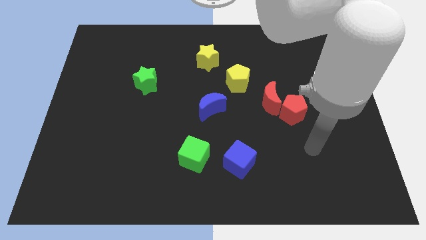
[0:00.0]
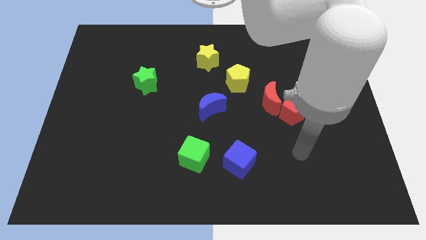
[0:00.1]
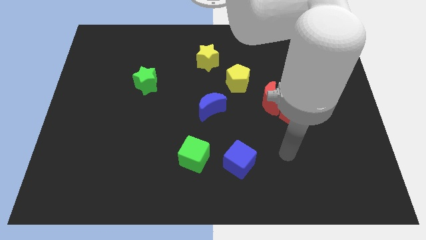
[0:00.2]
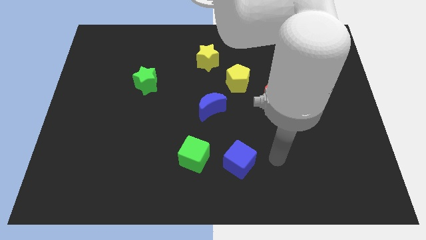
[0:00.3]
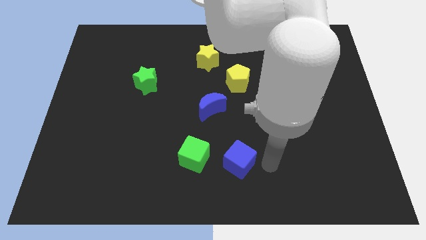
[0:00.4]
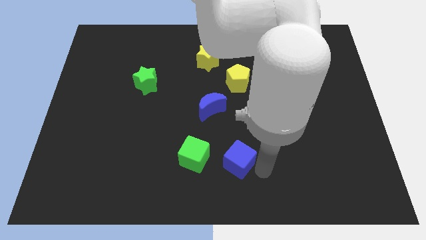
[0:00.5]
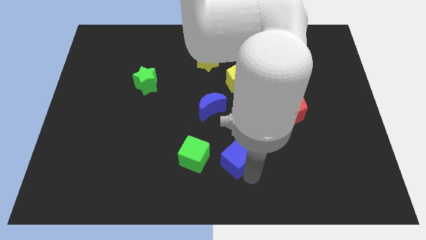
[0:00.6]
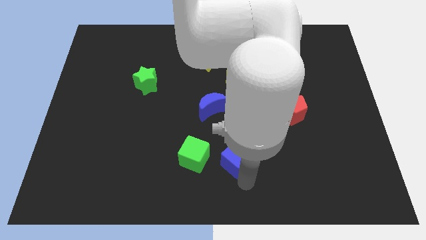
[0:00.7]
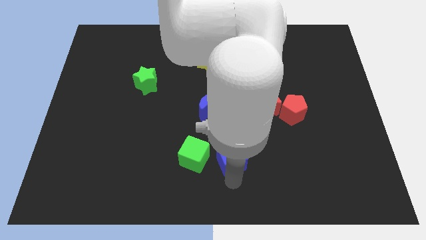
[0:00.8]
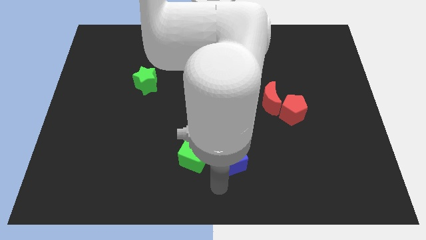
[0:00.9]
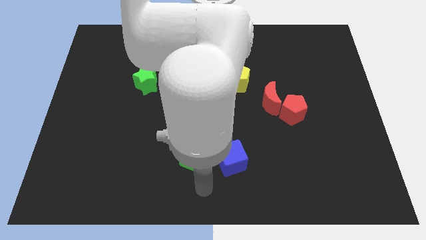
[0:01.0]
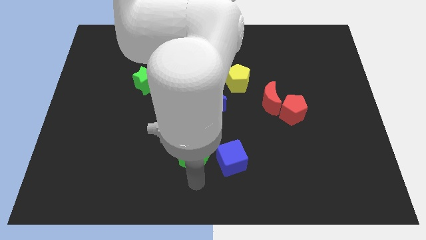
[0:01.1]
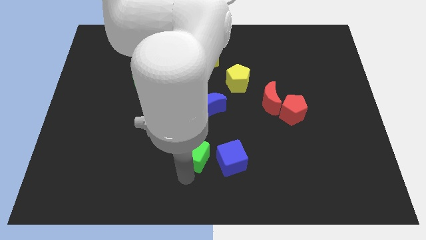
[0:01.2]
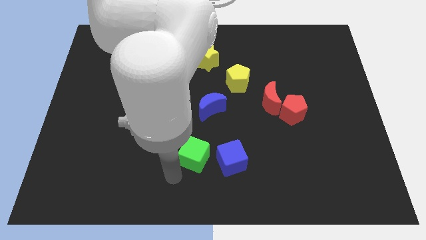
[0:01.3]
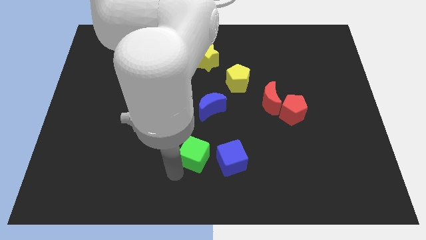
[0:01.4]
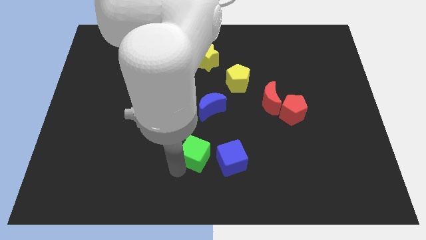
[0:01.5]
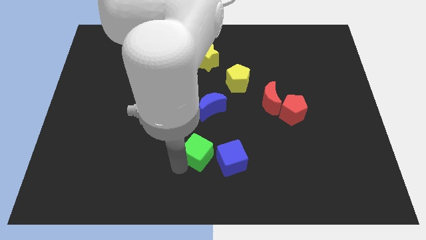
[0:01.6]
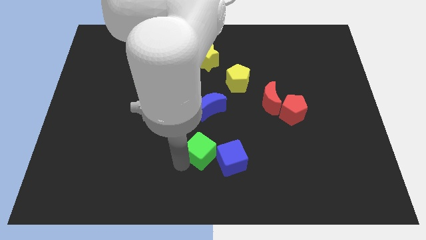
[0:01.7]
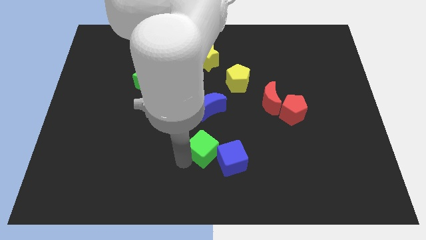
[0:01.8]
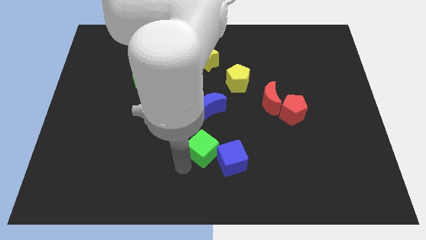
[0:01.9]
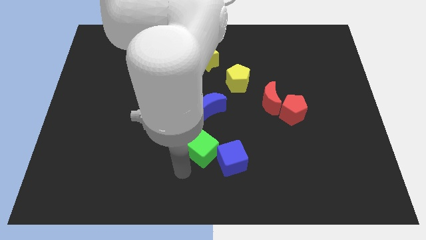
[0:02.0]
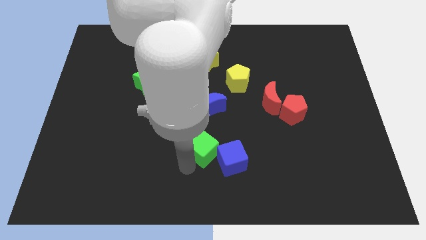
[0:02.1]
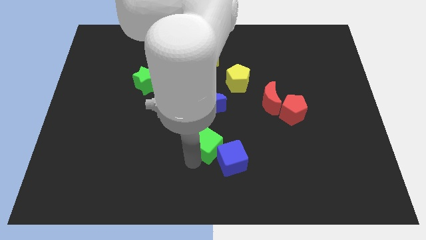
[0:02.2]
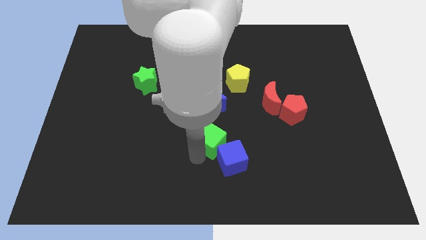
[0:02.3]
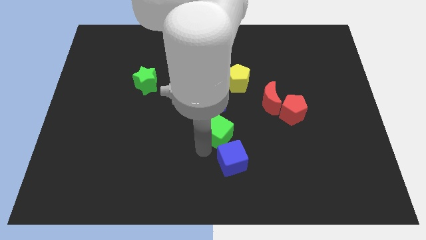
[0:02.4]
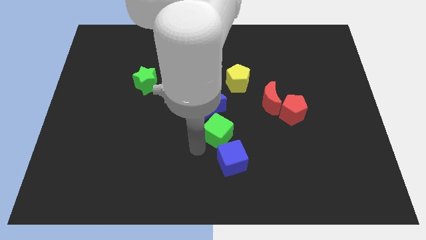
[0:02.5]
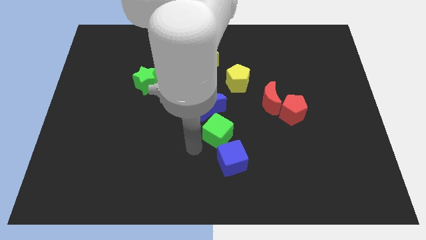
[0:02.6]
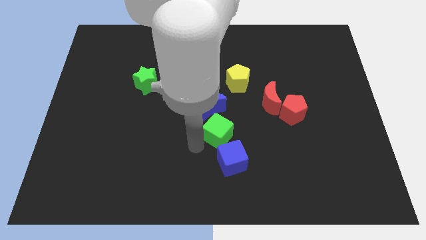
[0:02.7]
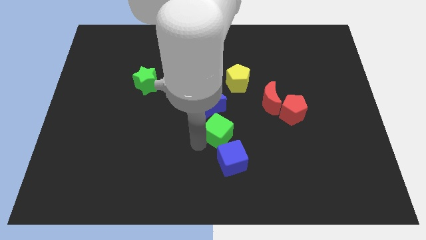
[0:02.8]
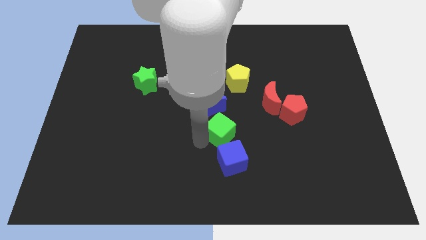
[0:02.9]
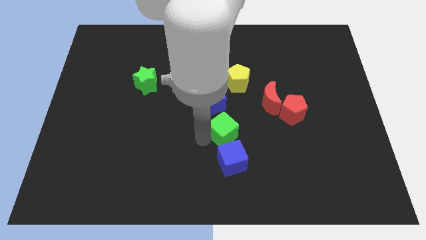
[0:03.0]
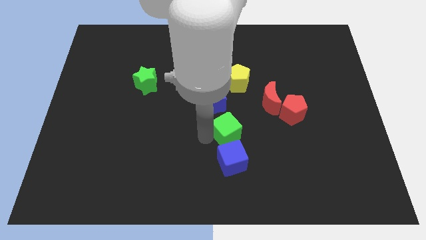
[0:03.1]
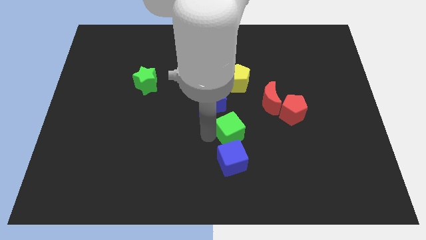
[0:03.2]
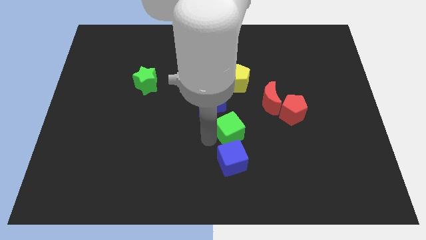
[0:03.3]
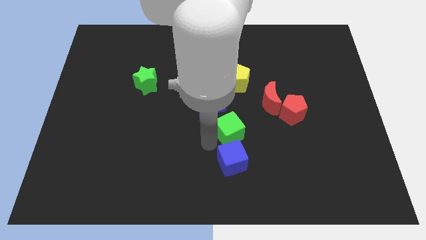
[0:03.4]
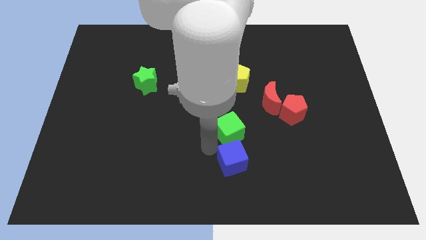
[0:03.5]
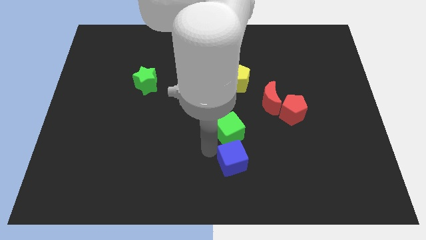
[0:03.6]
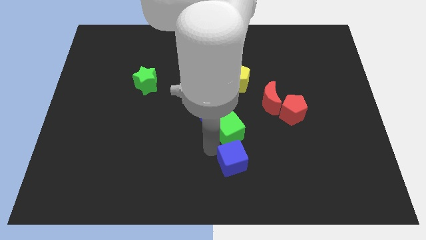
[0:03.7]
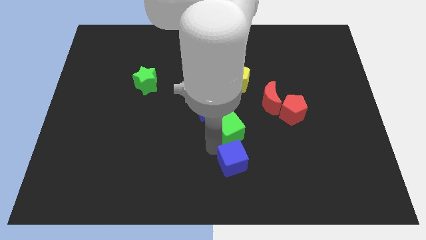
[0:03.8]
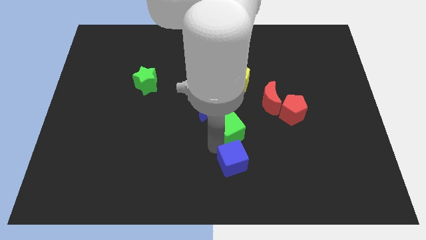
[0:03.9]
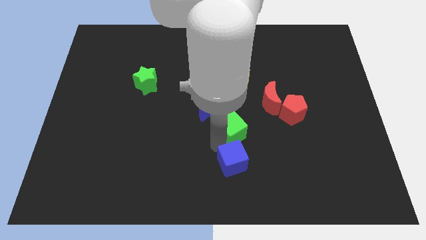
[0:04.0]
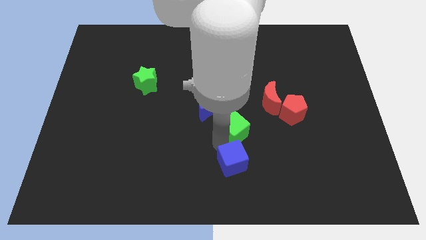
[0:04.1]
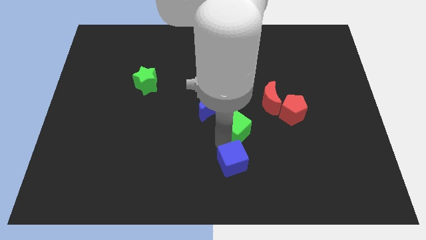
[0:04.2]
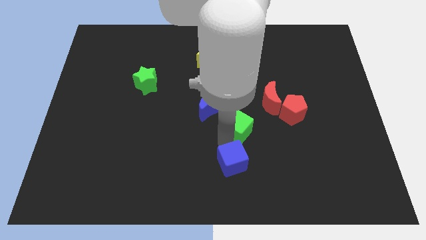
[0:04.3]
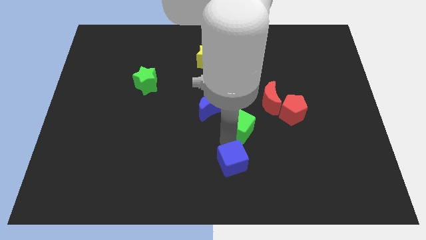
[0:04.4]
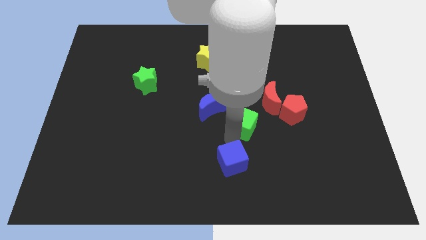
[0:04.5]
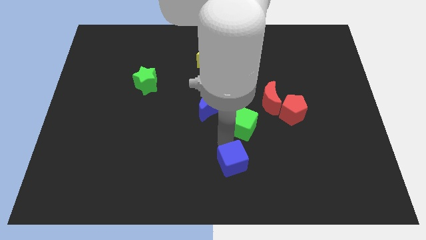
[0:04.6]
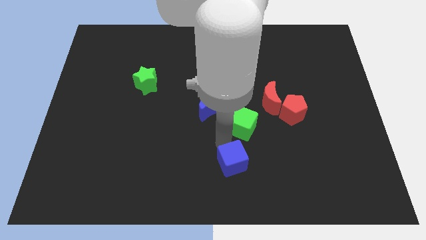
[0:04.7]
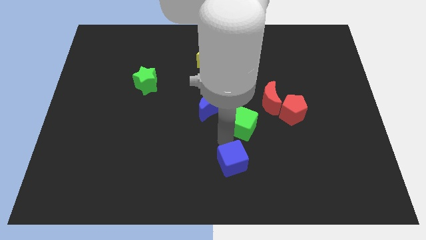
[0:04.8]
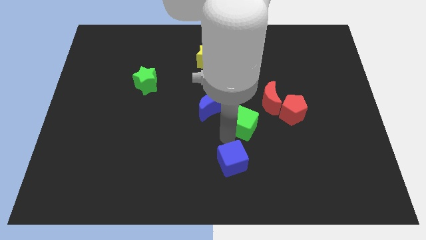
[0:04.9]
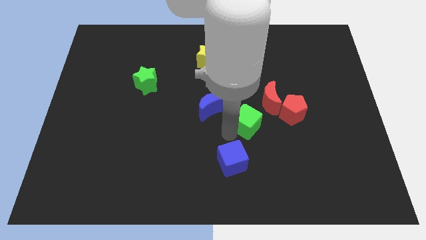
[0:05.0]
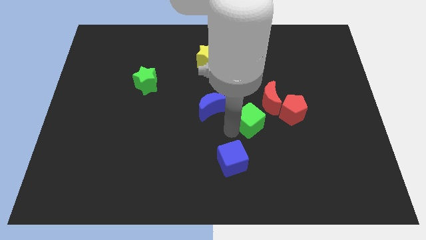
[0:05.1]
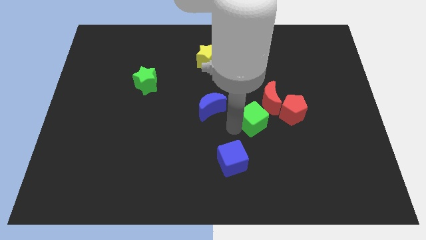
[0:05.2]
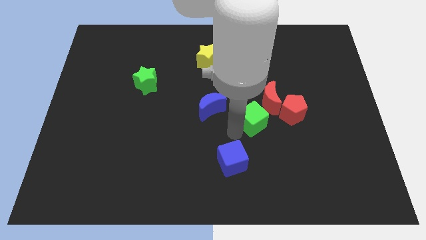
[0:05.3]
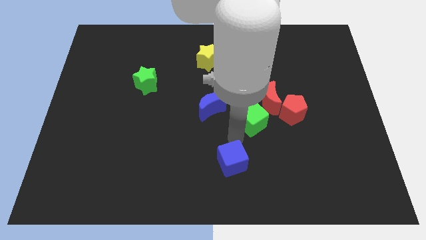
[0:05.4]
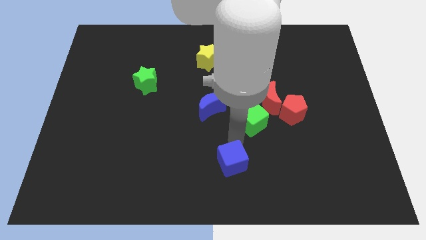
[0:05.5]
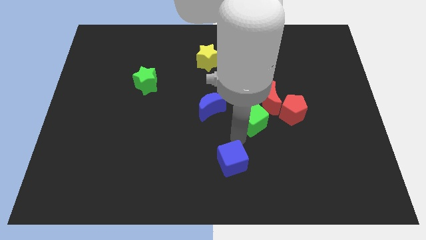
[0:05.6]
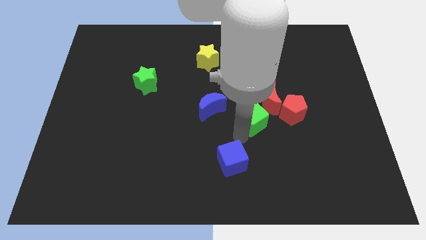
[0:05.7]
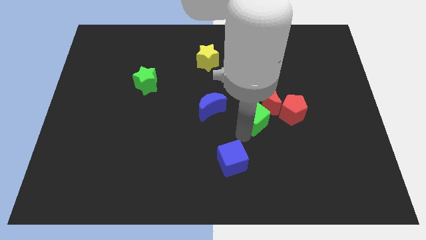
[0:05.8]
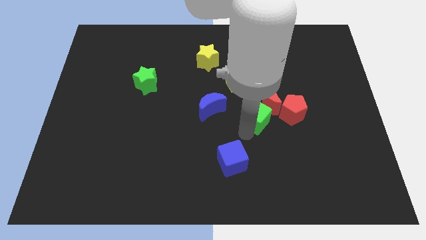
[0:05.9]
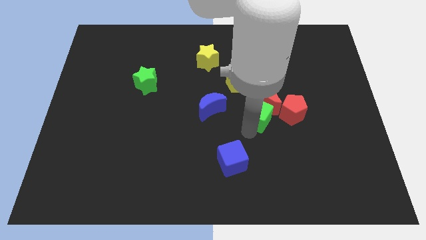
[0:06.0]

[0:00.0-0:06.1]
move the green cube next to the red moon

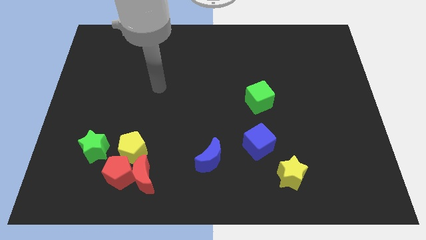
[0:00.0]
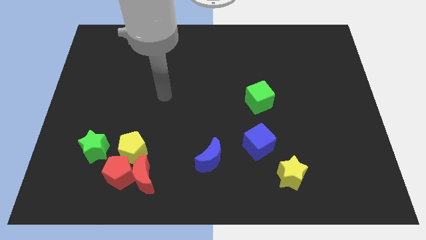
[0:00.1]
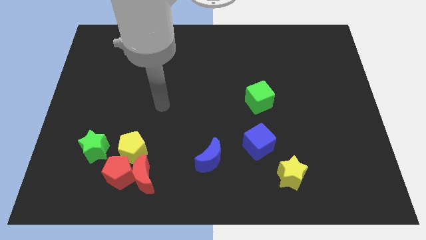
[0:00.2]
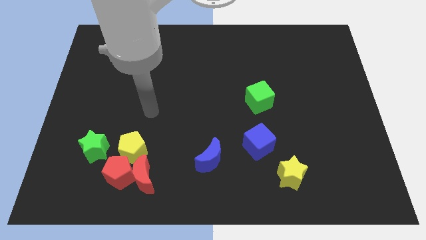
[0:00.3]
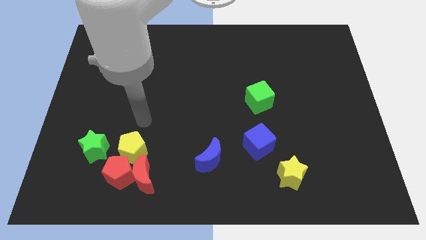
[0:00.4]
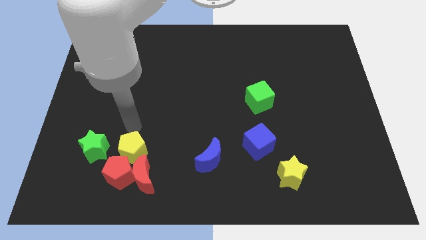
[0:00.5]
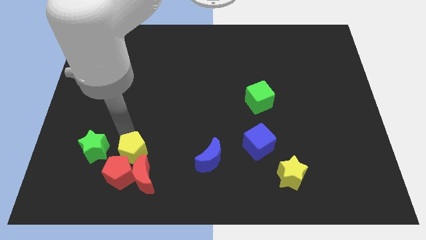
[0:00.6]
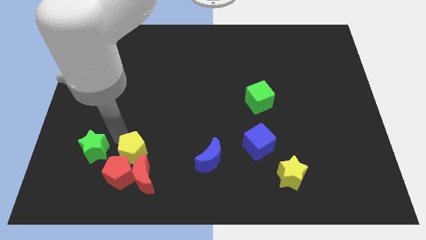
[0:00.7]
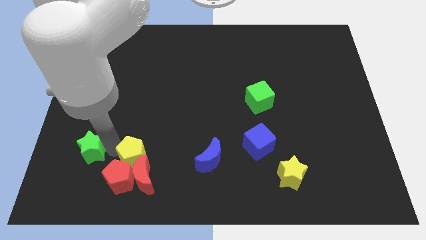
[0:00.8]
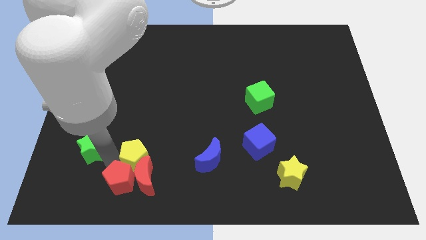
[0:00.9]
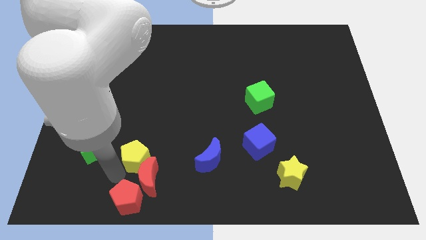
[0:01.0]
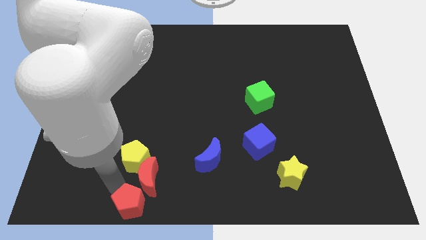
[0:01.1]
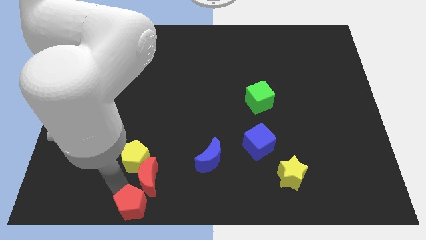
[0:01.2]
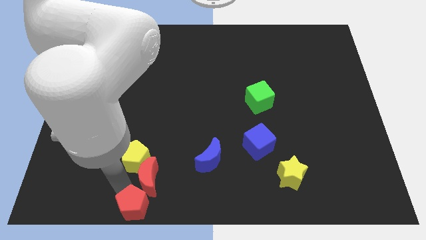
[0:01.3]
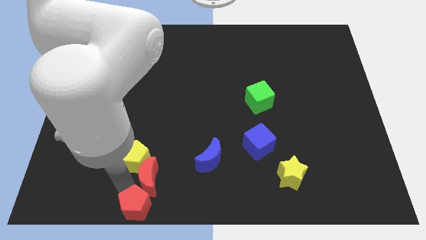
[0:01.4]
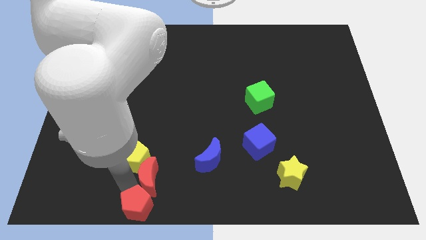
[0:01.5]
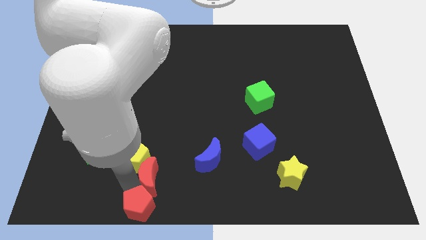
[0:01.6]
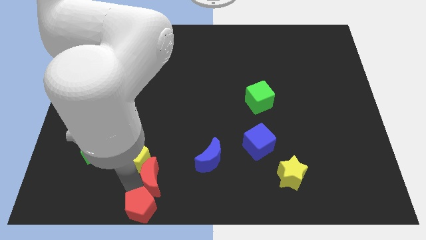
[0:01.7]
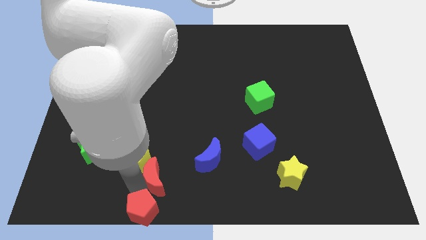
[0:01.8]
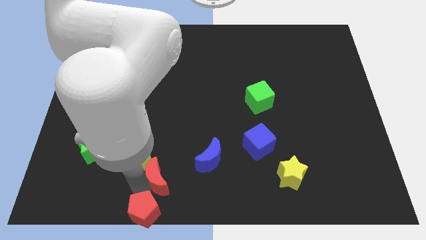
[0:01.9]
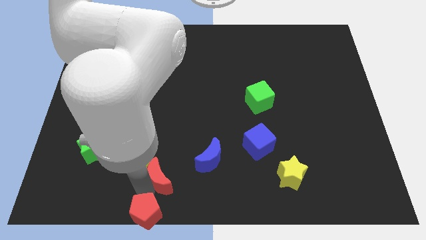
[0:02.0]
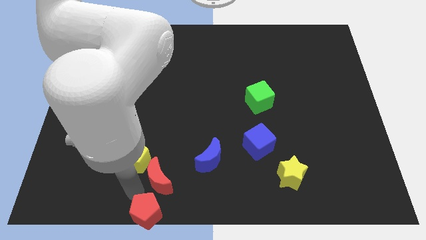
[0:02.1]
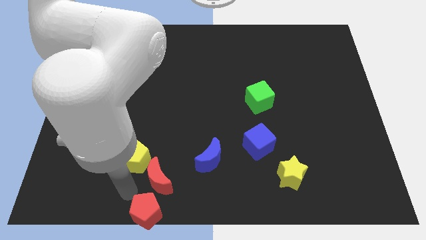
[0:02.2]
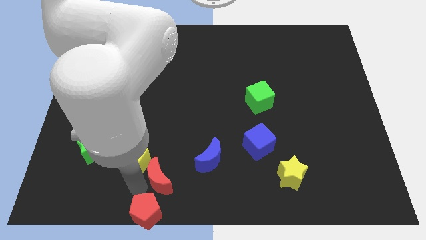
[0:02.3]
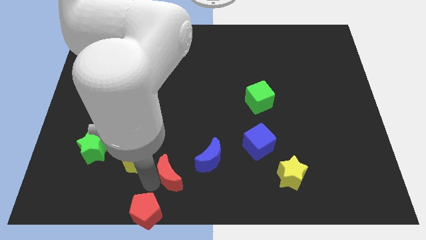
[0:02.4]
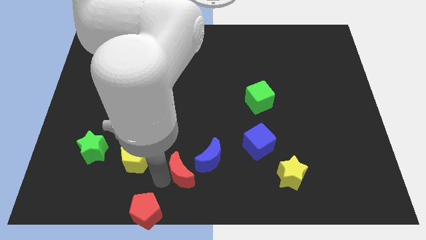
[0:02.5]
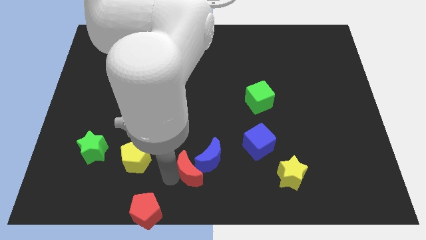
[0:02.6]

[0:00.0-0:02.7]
move the red moon to the blue moon
